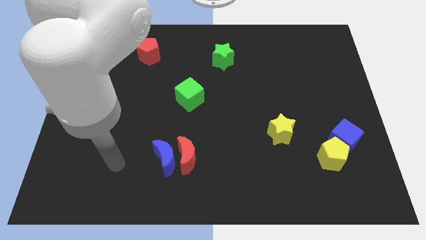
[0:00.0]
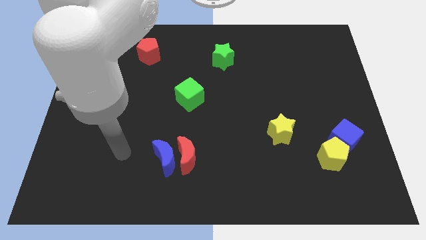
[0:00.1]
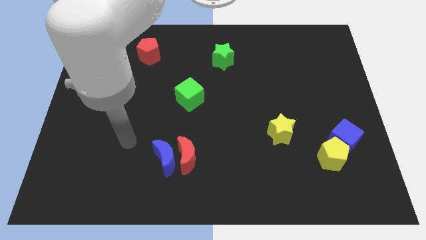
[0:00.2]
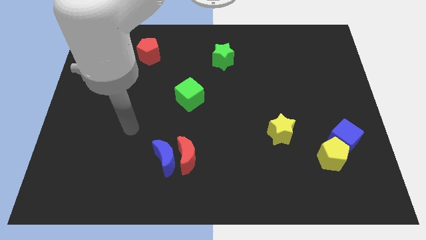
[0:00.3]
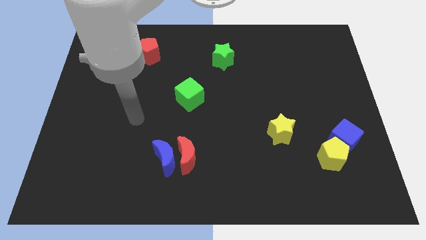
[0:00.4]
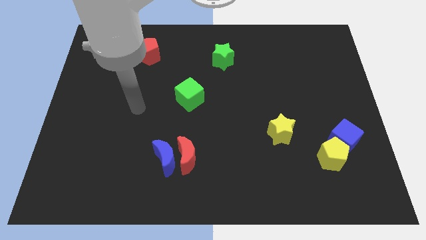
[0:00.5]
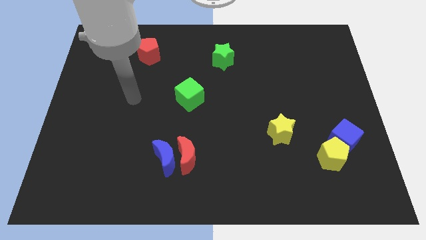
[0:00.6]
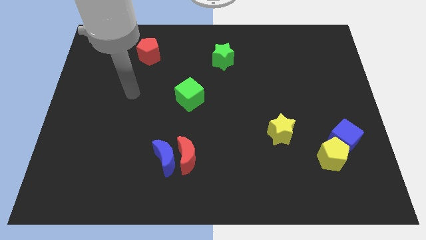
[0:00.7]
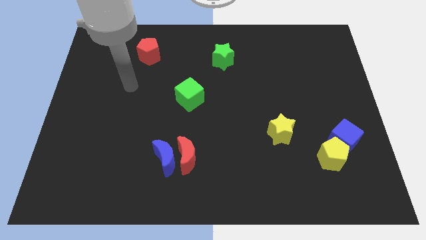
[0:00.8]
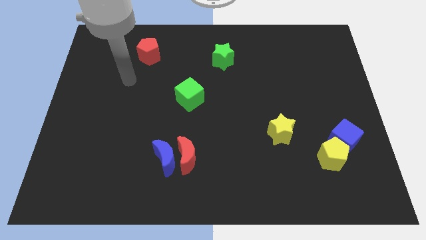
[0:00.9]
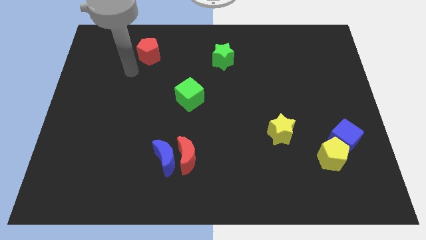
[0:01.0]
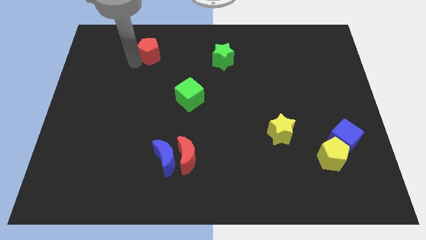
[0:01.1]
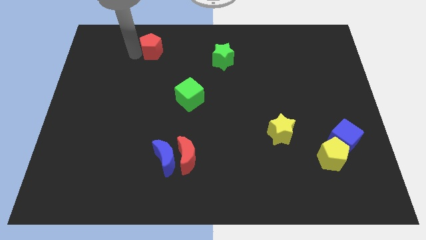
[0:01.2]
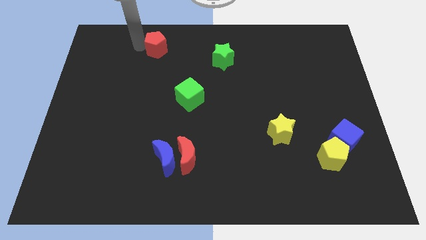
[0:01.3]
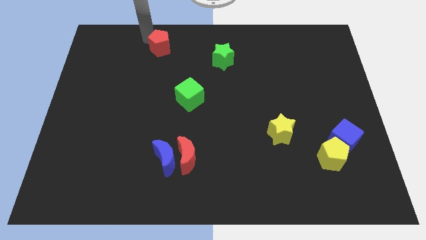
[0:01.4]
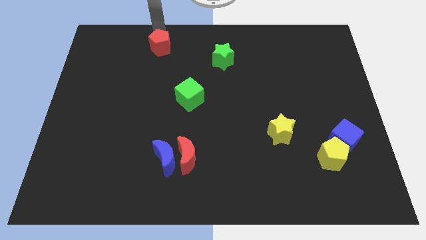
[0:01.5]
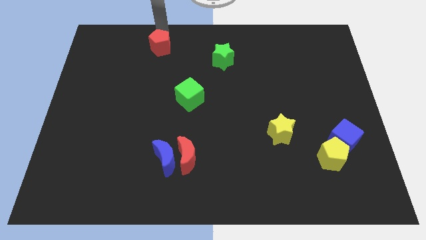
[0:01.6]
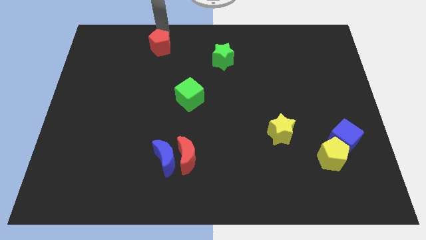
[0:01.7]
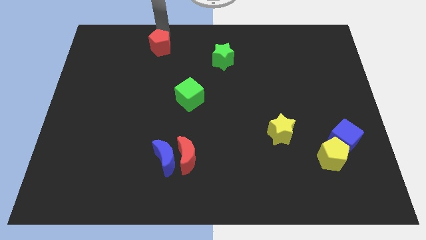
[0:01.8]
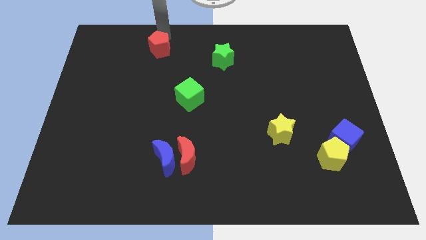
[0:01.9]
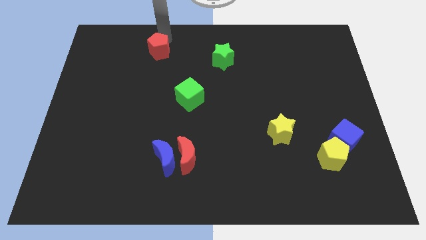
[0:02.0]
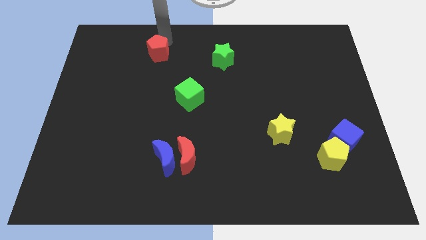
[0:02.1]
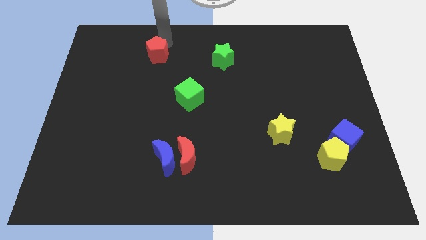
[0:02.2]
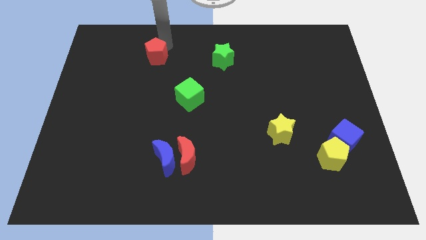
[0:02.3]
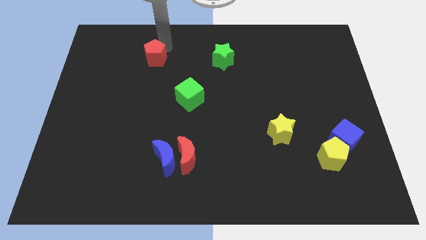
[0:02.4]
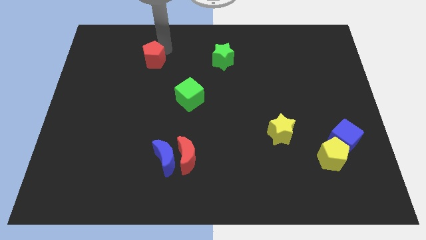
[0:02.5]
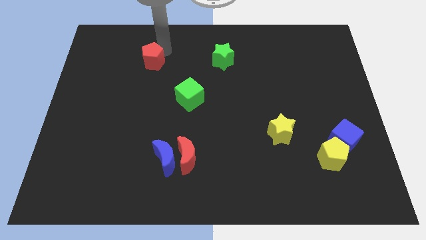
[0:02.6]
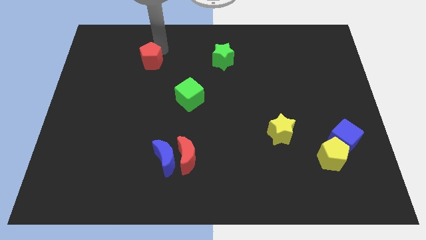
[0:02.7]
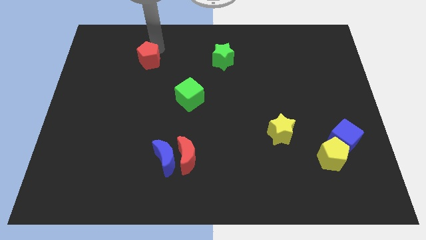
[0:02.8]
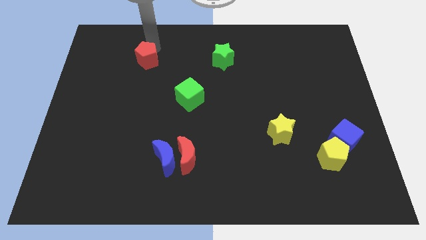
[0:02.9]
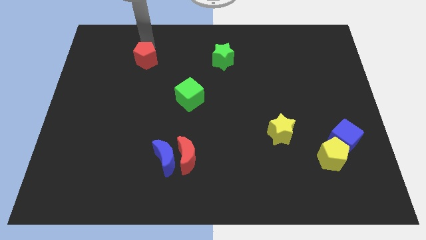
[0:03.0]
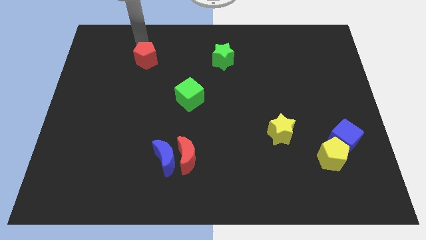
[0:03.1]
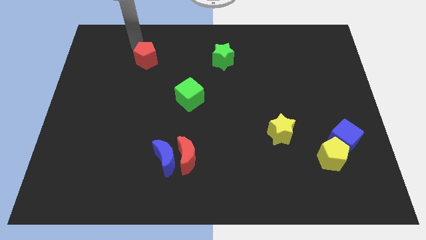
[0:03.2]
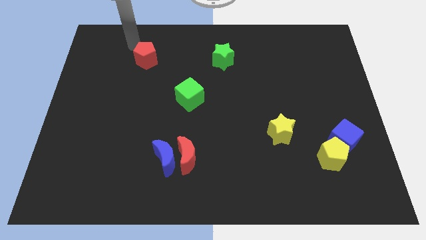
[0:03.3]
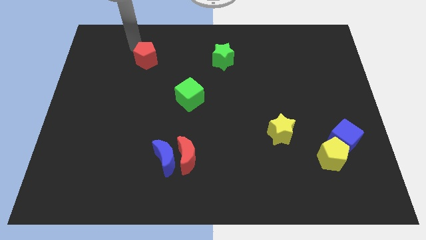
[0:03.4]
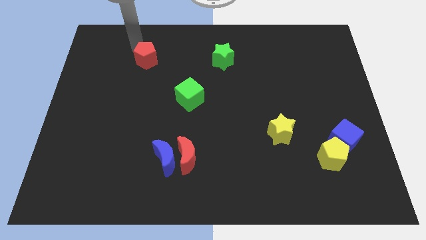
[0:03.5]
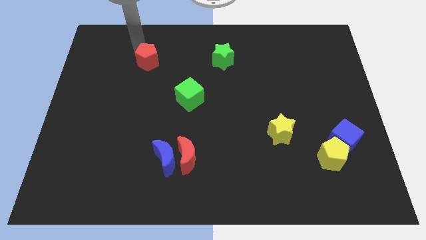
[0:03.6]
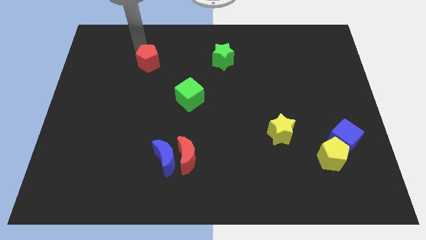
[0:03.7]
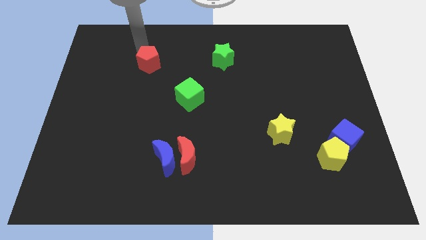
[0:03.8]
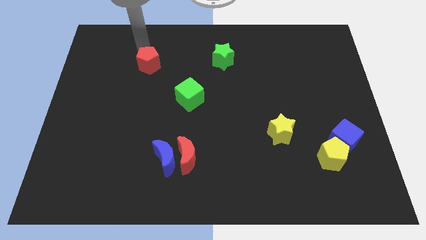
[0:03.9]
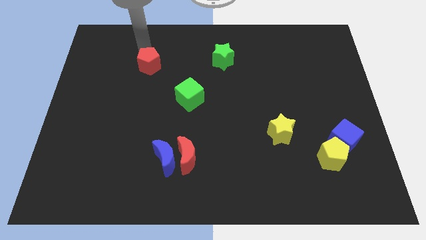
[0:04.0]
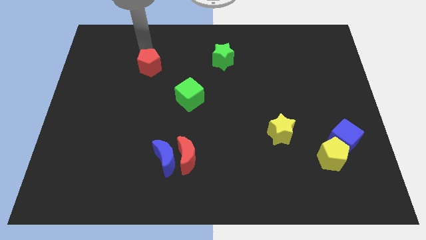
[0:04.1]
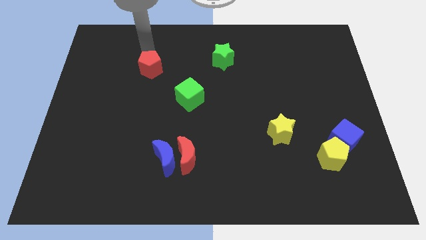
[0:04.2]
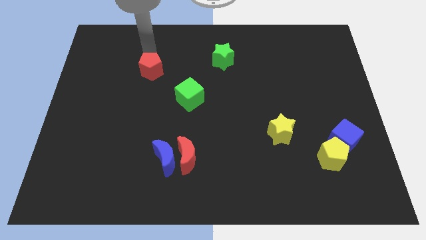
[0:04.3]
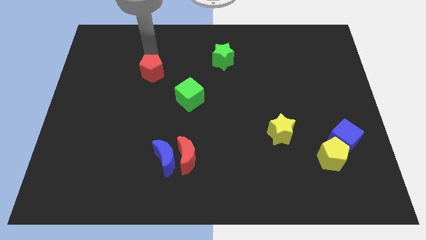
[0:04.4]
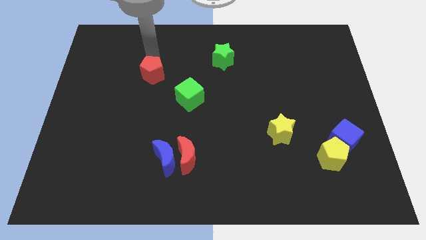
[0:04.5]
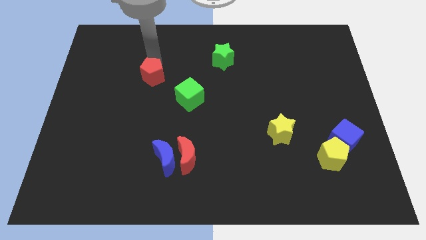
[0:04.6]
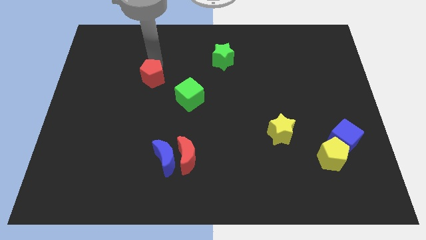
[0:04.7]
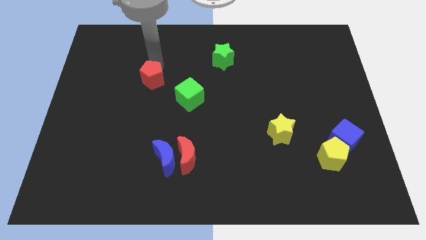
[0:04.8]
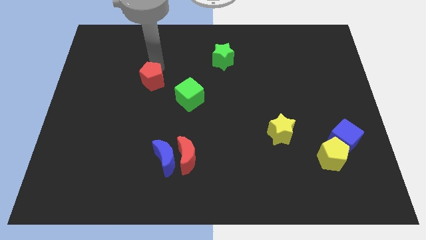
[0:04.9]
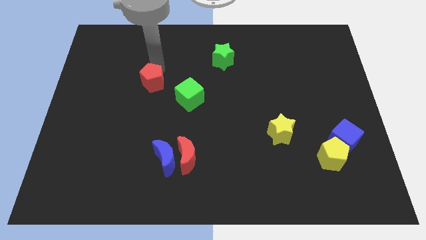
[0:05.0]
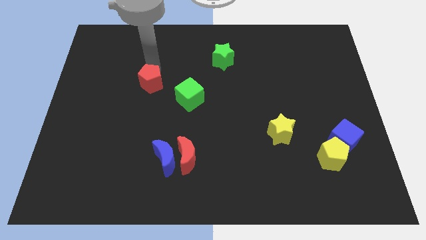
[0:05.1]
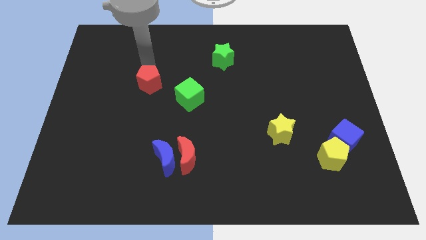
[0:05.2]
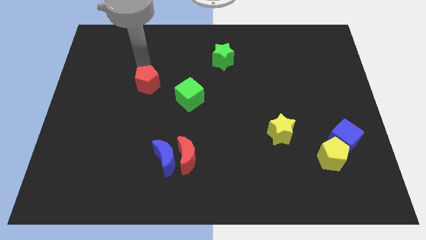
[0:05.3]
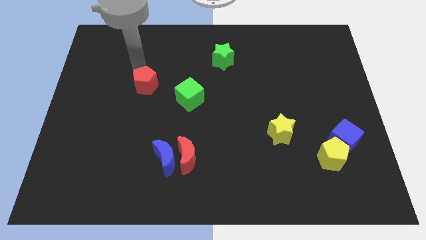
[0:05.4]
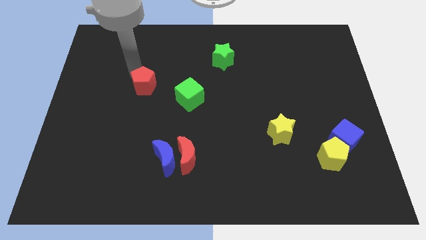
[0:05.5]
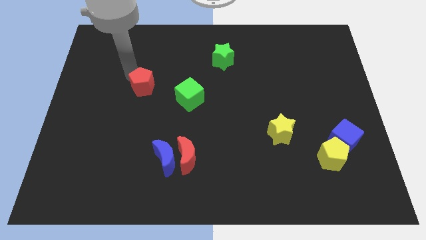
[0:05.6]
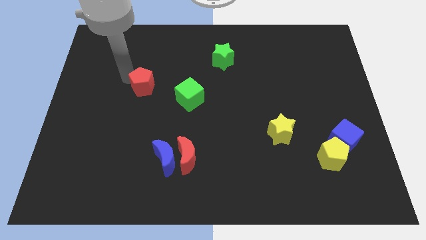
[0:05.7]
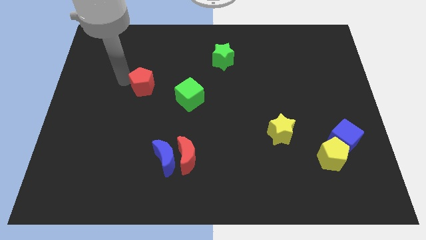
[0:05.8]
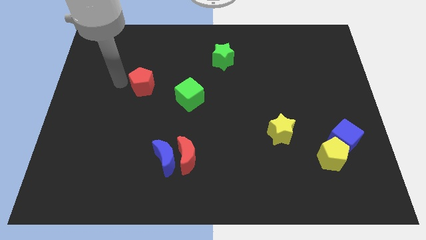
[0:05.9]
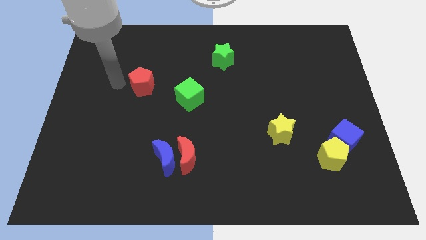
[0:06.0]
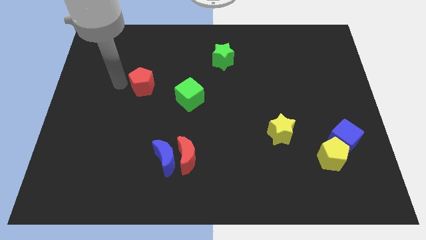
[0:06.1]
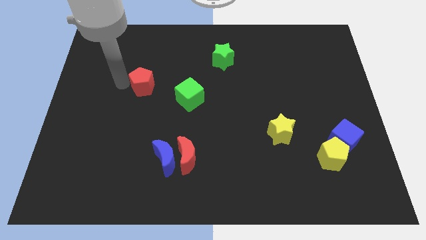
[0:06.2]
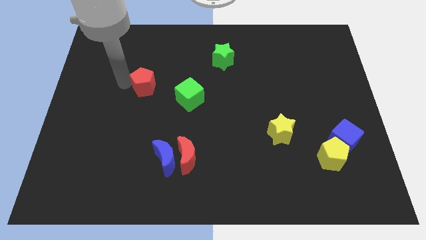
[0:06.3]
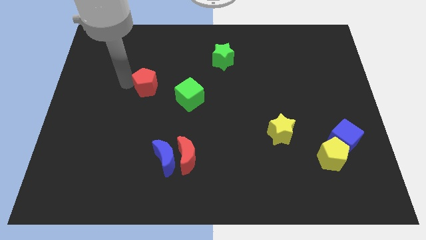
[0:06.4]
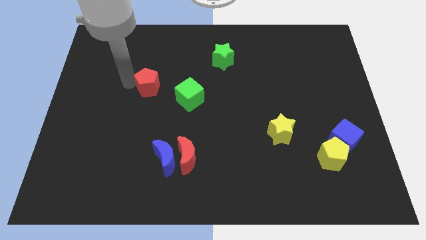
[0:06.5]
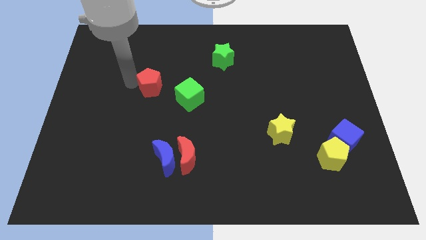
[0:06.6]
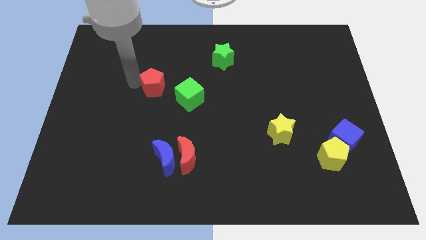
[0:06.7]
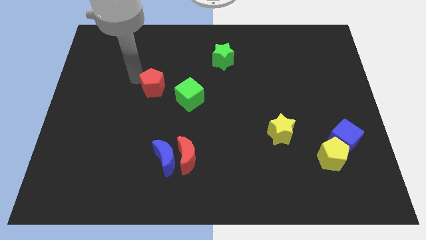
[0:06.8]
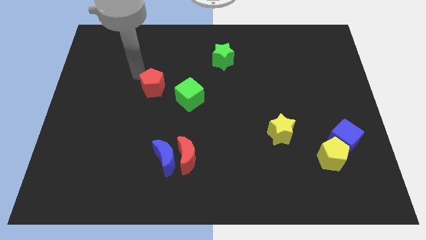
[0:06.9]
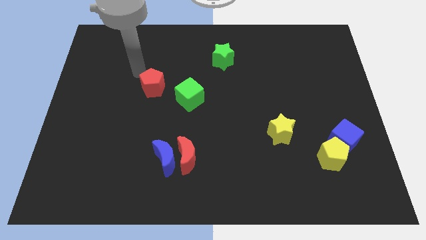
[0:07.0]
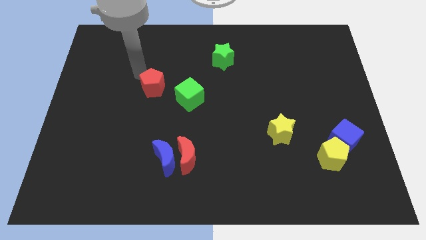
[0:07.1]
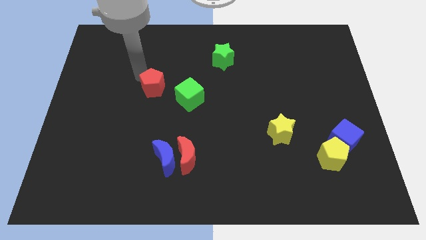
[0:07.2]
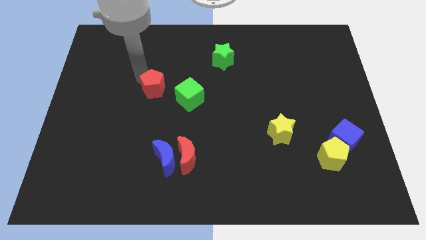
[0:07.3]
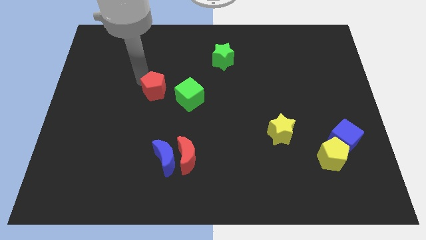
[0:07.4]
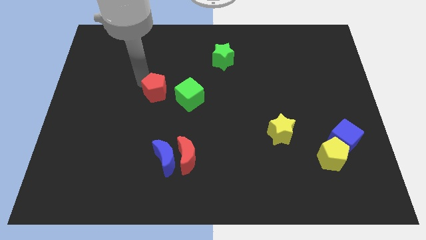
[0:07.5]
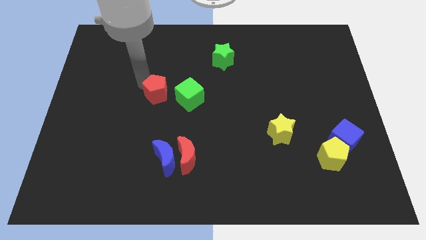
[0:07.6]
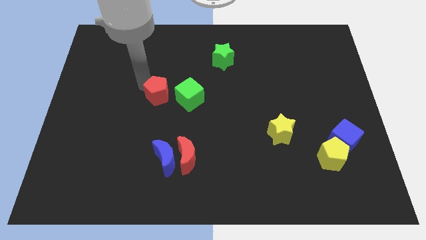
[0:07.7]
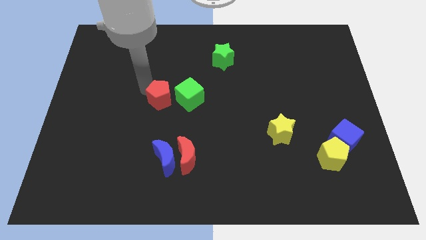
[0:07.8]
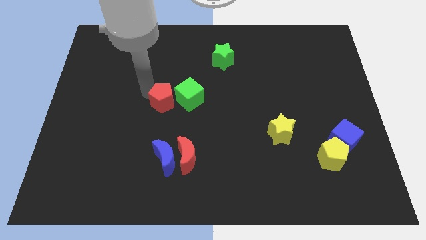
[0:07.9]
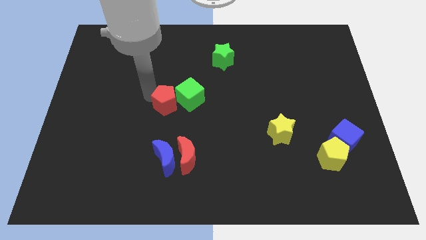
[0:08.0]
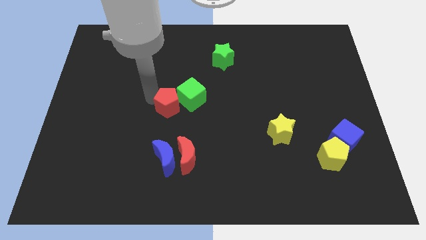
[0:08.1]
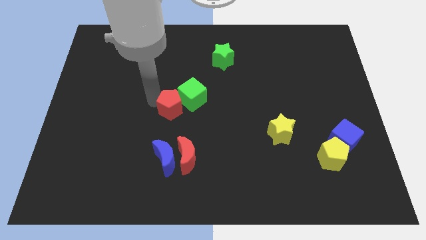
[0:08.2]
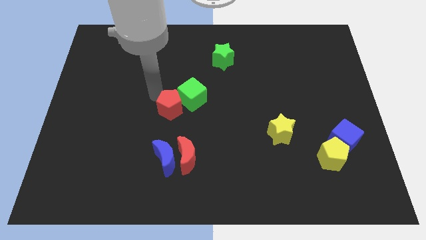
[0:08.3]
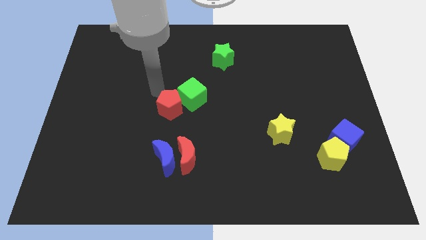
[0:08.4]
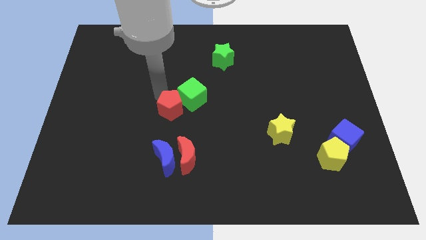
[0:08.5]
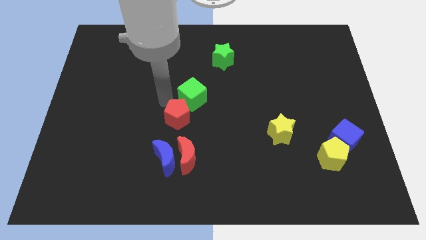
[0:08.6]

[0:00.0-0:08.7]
push the red pentagon to the bottom of the green cube
